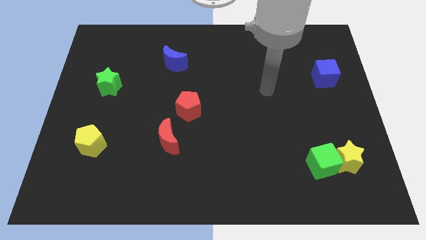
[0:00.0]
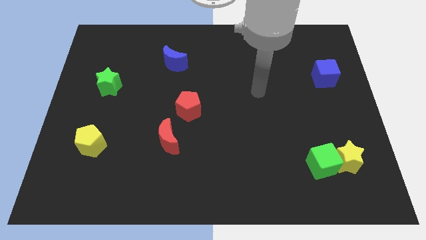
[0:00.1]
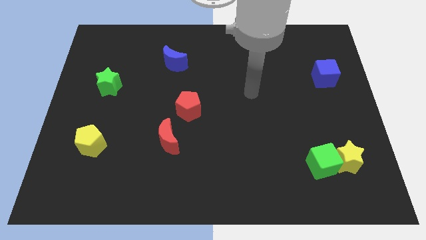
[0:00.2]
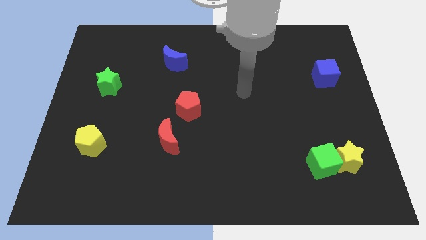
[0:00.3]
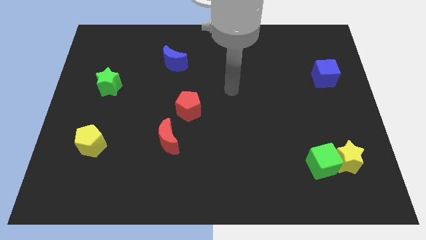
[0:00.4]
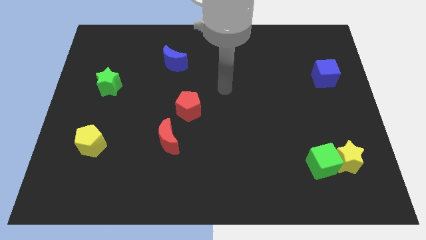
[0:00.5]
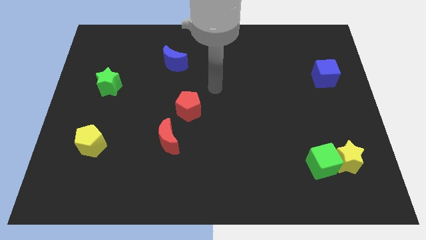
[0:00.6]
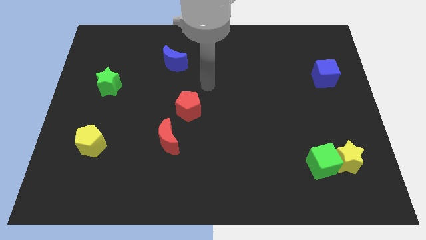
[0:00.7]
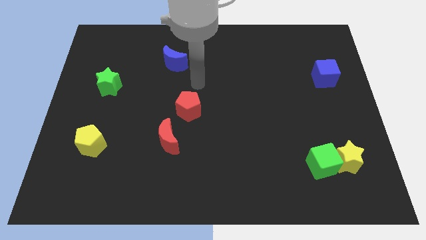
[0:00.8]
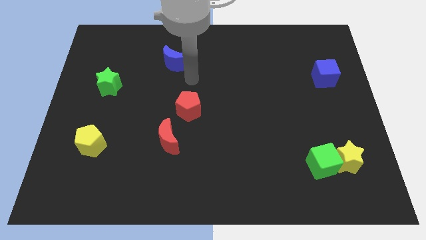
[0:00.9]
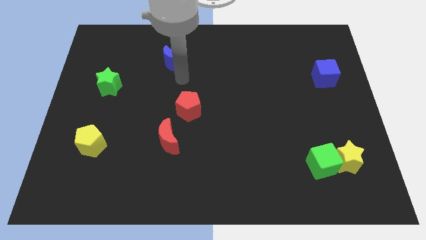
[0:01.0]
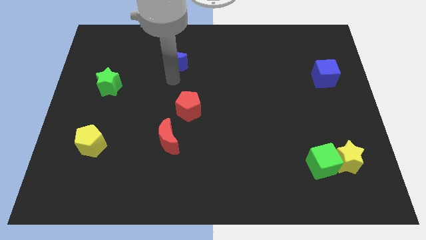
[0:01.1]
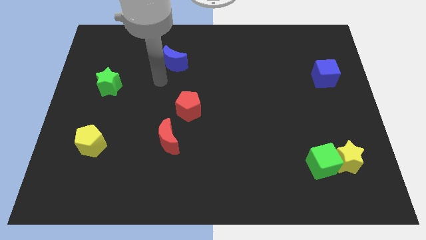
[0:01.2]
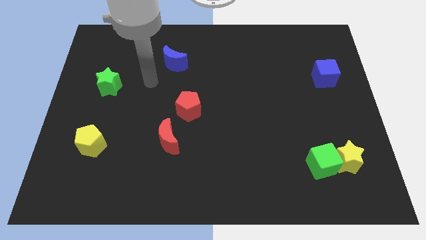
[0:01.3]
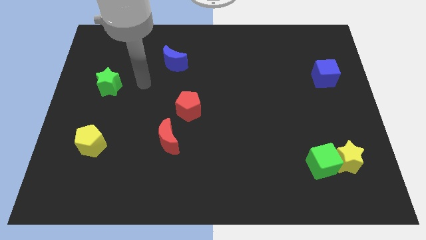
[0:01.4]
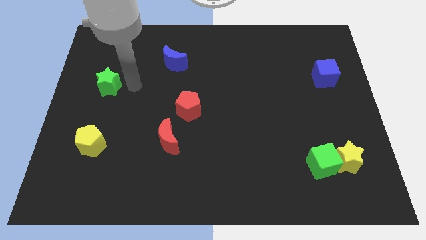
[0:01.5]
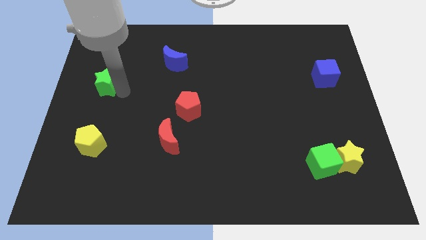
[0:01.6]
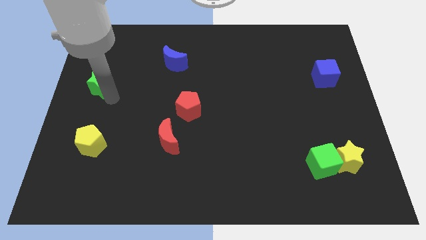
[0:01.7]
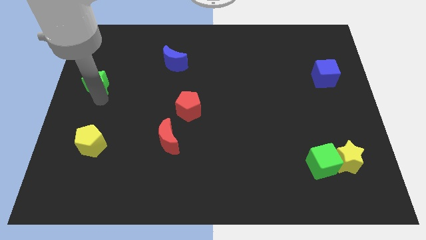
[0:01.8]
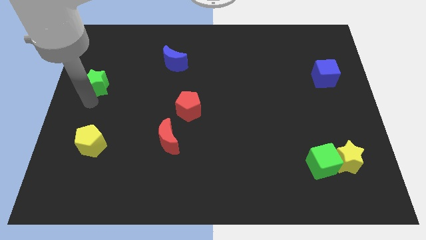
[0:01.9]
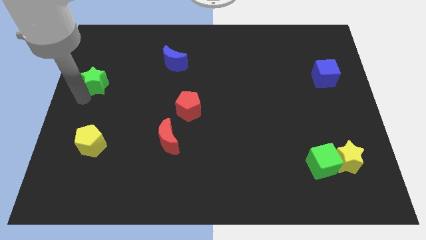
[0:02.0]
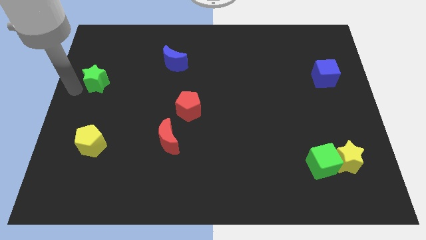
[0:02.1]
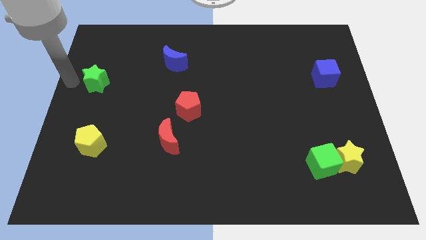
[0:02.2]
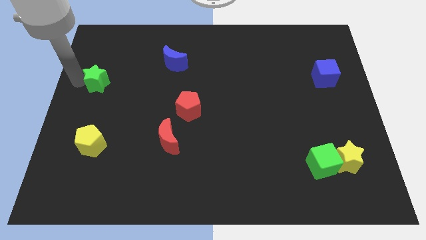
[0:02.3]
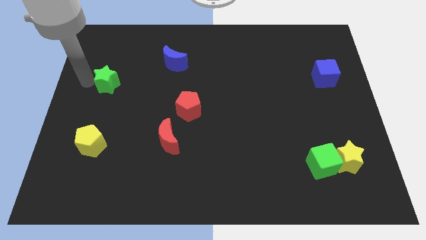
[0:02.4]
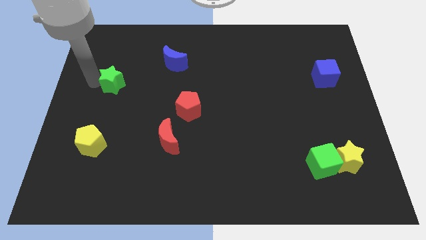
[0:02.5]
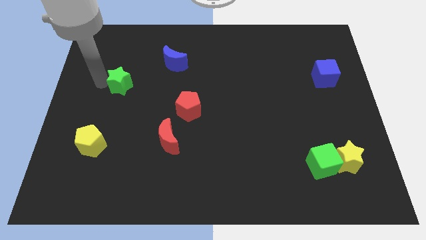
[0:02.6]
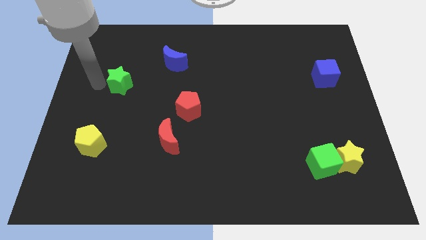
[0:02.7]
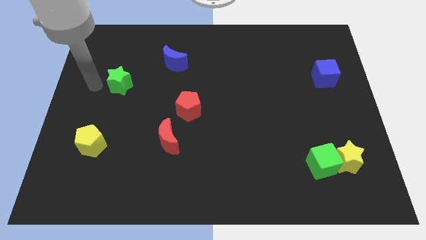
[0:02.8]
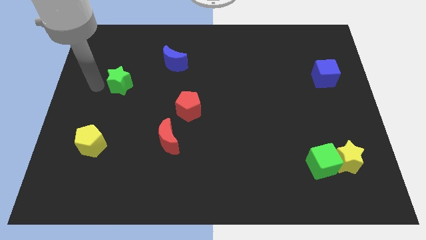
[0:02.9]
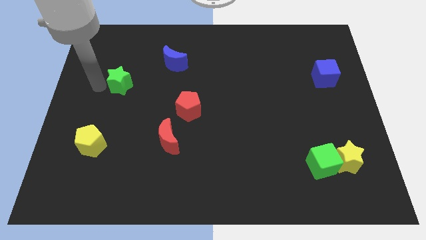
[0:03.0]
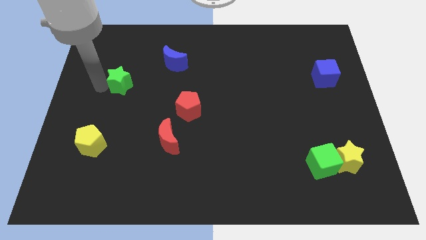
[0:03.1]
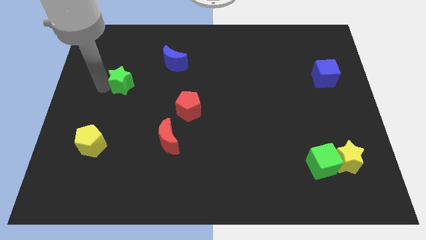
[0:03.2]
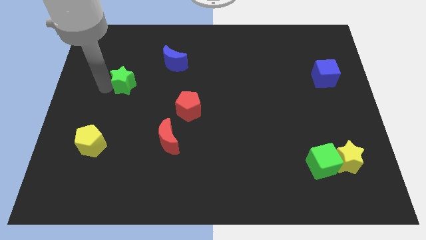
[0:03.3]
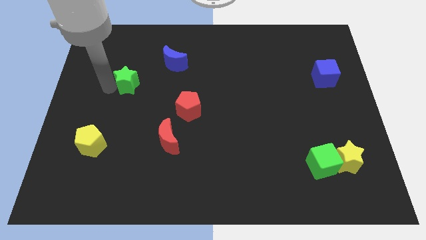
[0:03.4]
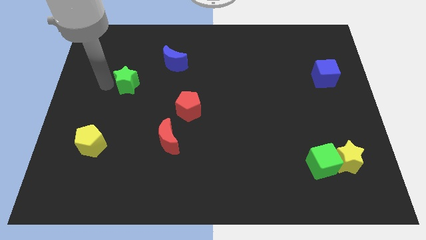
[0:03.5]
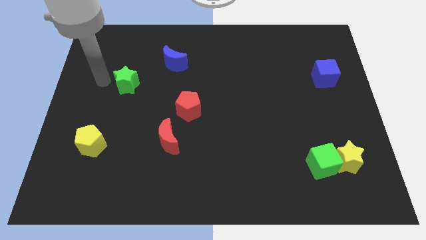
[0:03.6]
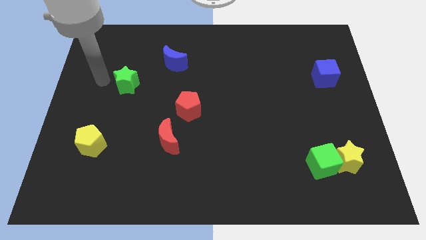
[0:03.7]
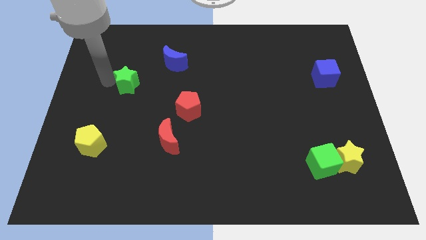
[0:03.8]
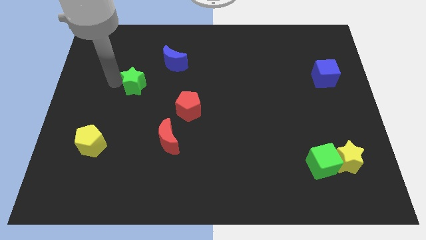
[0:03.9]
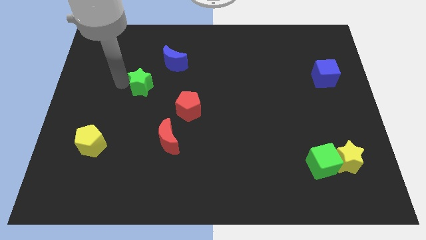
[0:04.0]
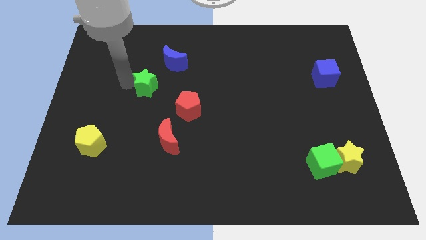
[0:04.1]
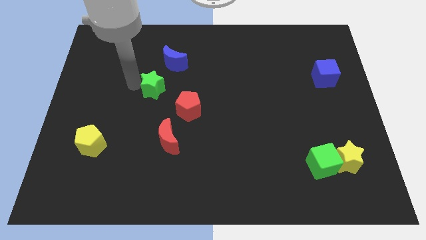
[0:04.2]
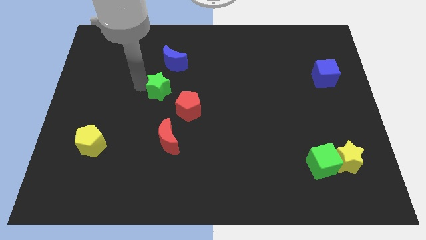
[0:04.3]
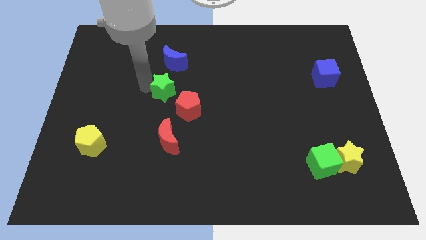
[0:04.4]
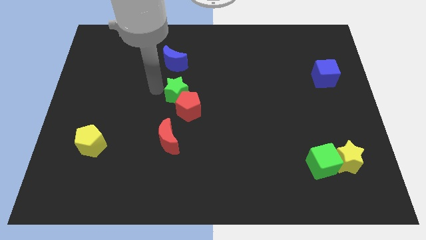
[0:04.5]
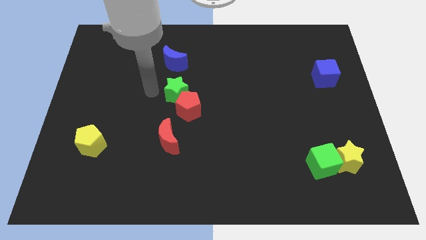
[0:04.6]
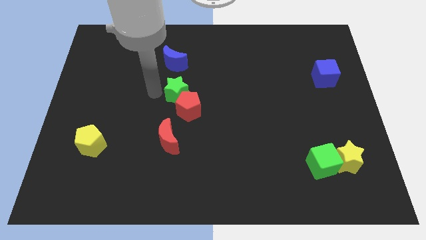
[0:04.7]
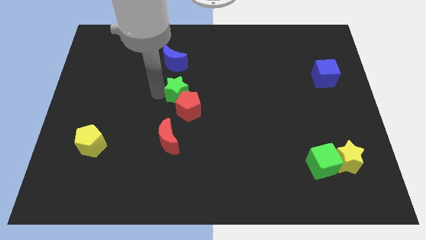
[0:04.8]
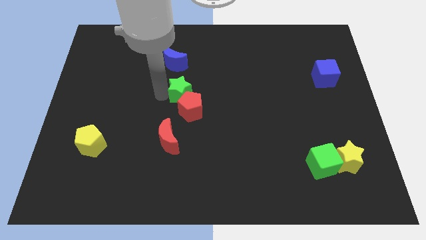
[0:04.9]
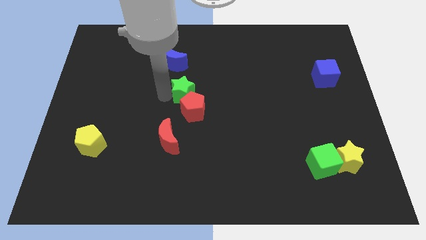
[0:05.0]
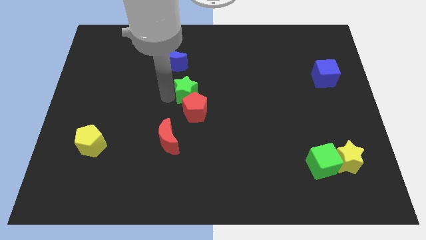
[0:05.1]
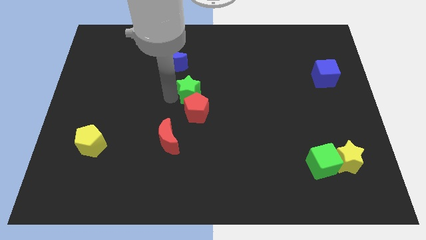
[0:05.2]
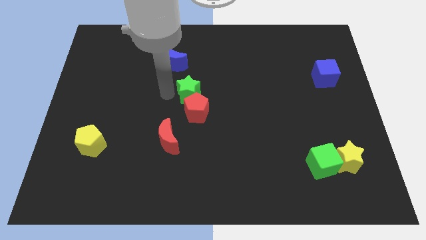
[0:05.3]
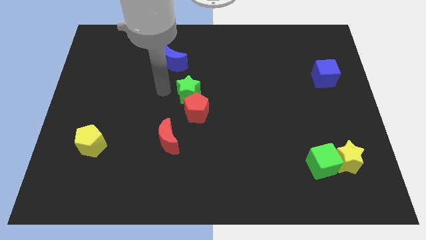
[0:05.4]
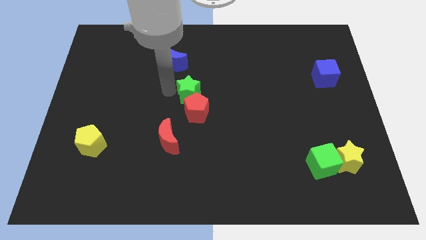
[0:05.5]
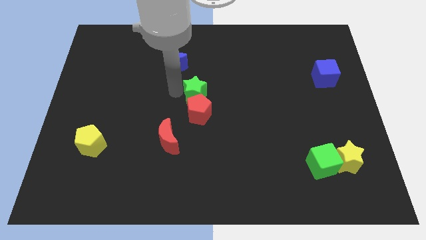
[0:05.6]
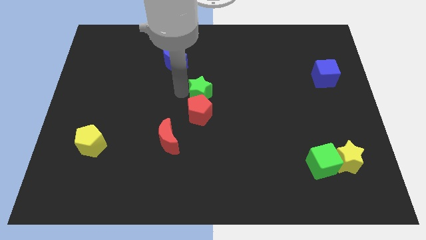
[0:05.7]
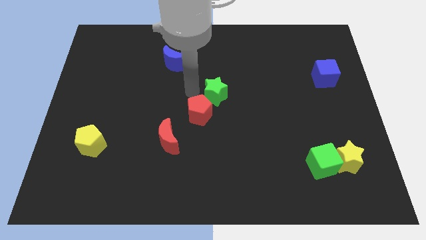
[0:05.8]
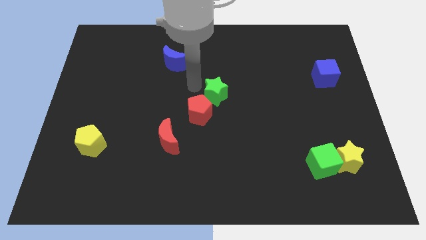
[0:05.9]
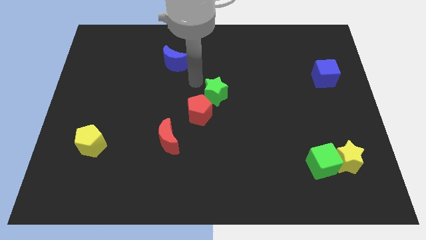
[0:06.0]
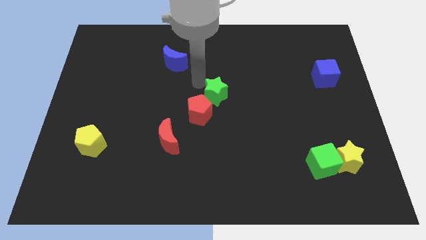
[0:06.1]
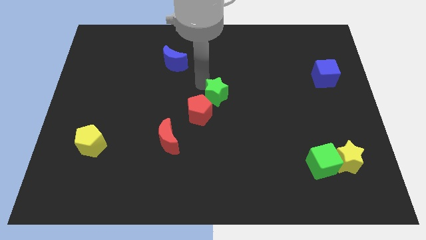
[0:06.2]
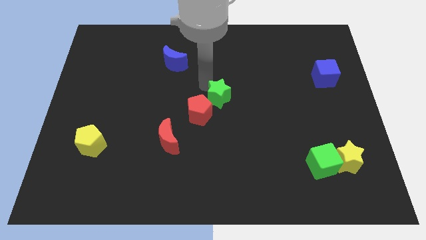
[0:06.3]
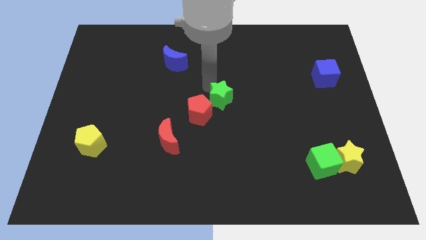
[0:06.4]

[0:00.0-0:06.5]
slide the green star just right of the red pentagon

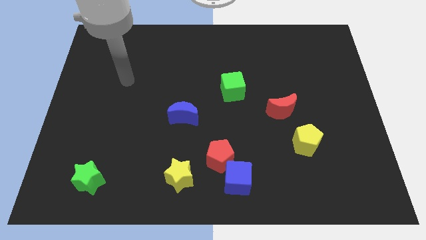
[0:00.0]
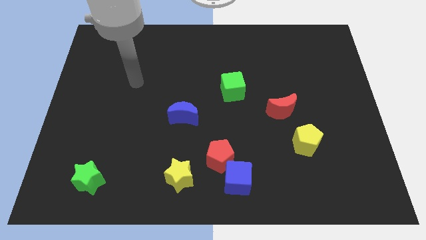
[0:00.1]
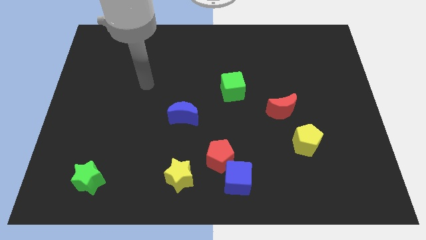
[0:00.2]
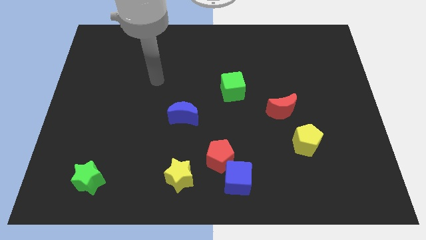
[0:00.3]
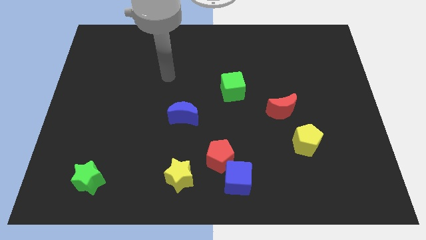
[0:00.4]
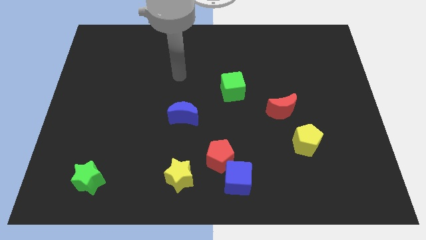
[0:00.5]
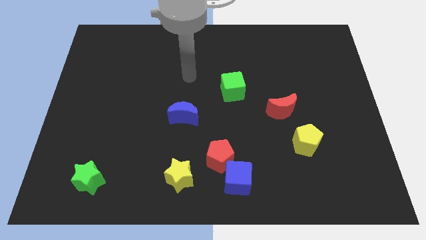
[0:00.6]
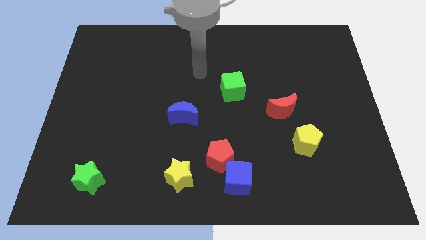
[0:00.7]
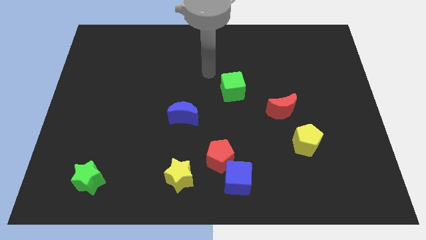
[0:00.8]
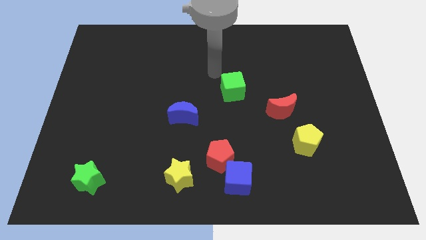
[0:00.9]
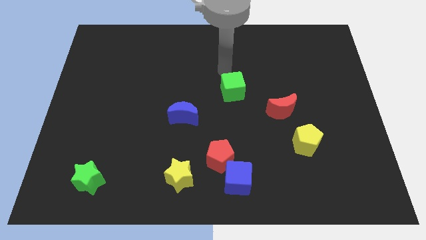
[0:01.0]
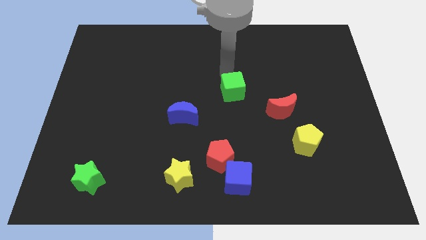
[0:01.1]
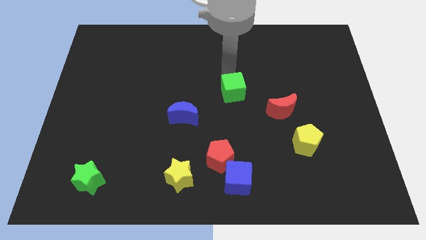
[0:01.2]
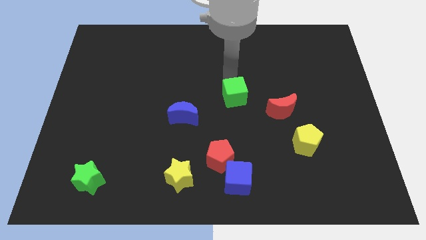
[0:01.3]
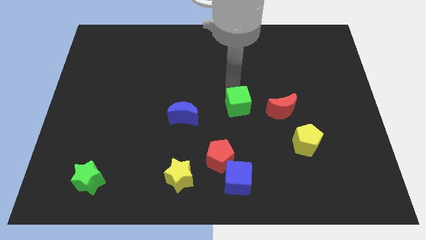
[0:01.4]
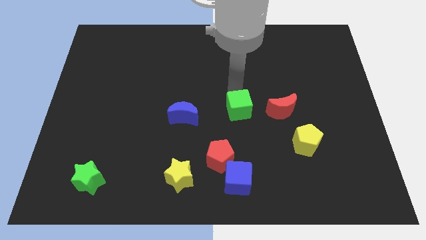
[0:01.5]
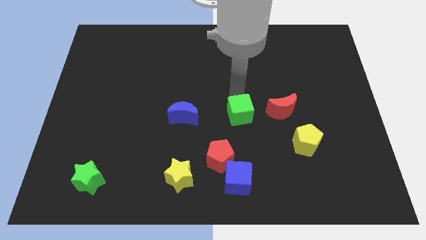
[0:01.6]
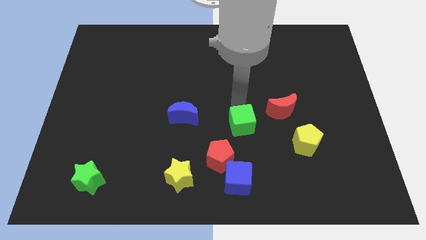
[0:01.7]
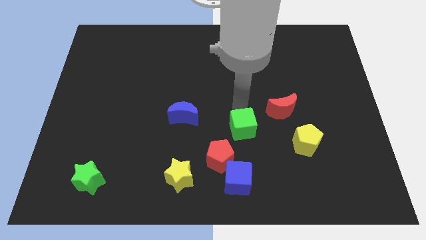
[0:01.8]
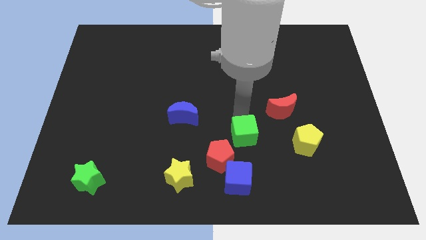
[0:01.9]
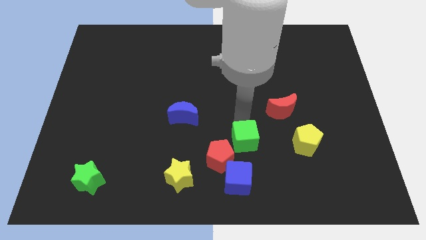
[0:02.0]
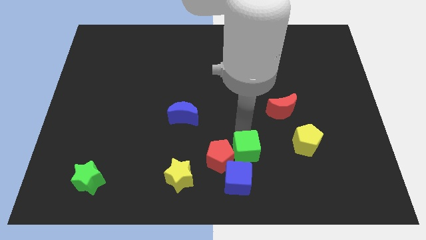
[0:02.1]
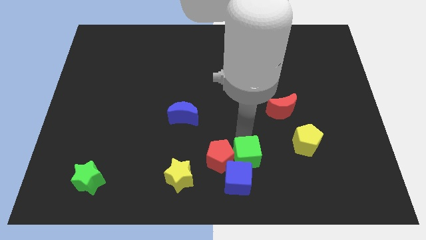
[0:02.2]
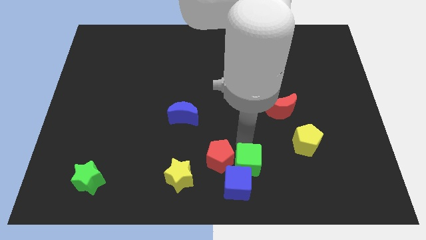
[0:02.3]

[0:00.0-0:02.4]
push the green cube to the right of the yellow star
